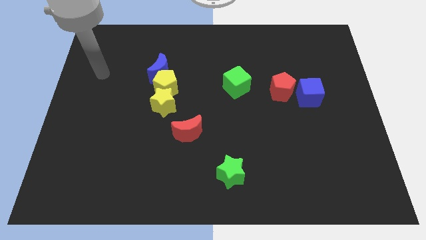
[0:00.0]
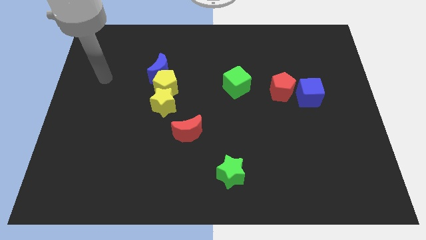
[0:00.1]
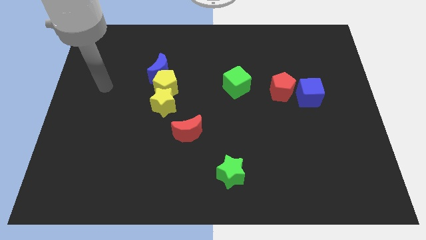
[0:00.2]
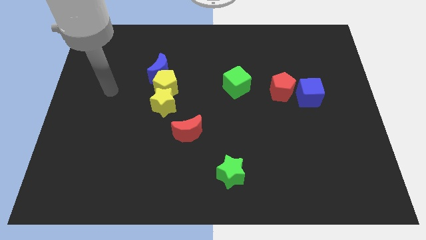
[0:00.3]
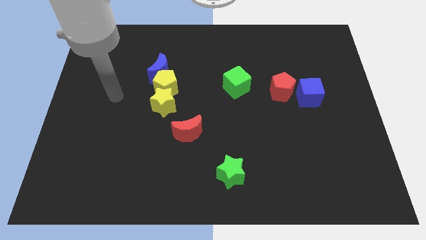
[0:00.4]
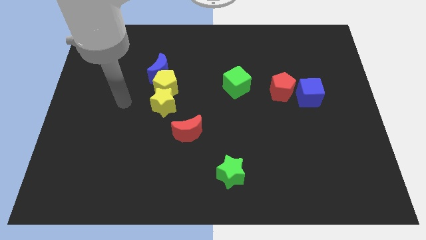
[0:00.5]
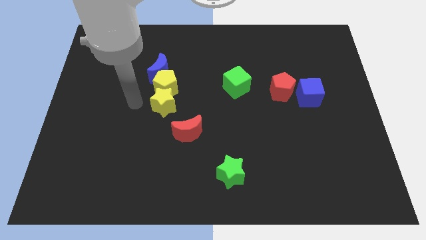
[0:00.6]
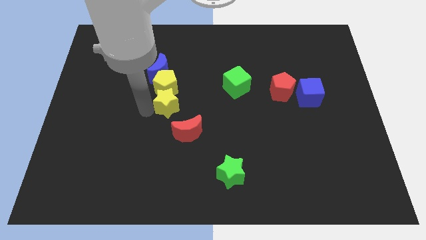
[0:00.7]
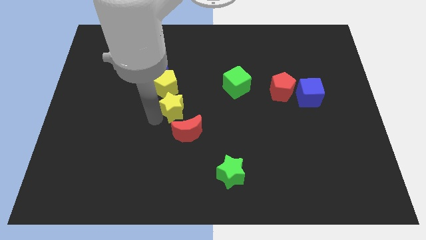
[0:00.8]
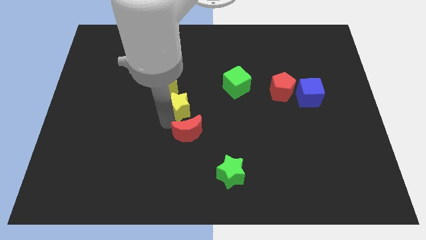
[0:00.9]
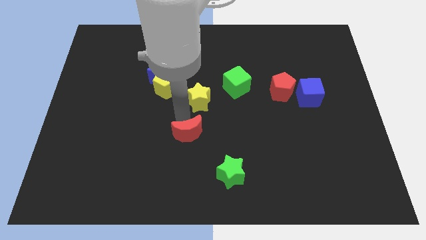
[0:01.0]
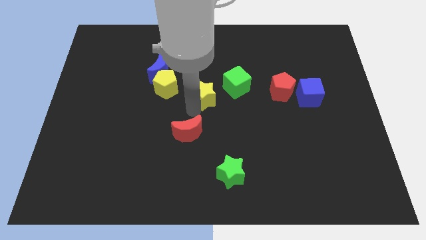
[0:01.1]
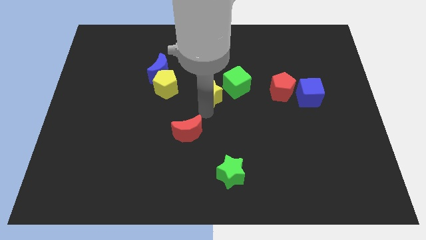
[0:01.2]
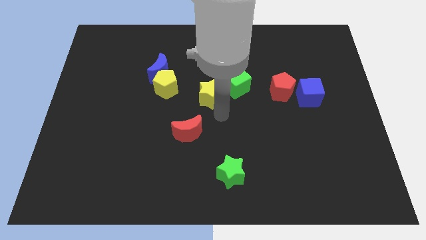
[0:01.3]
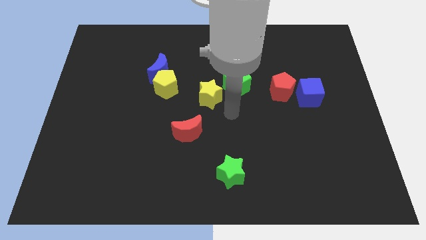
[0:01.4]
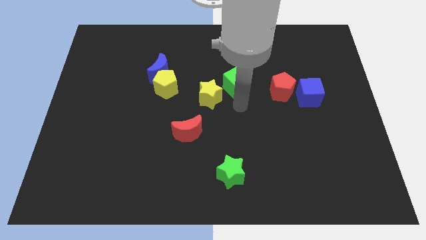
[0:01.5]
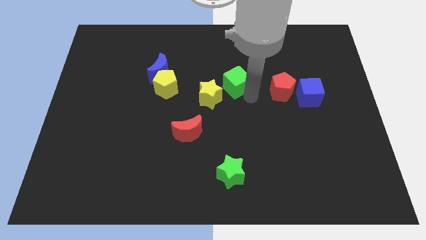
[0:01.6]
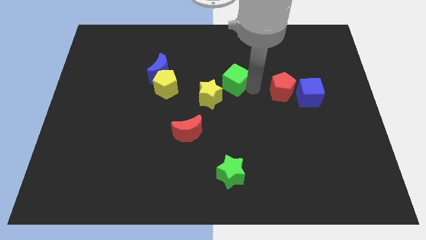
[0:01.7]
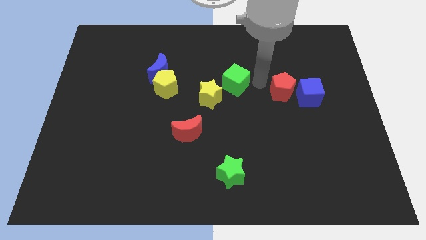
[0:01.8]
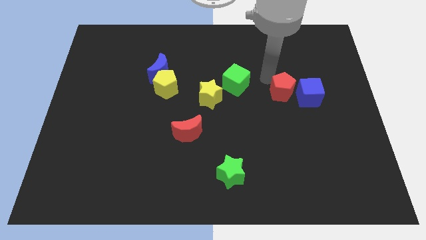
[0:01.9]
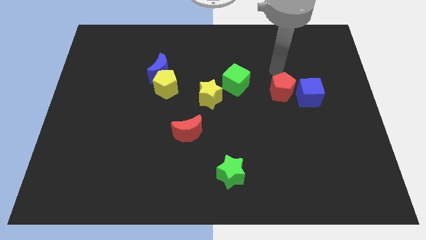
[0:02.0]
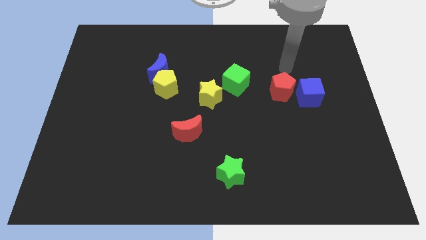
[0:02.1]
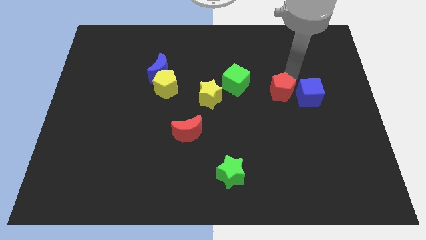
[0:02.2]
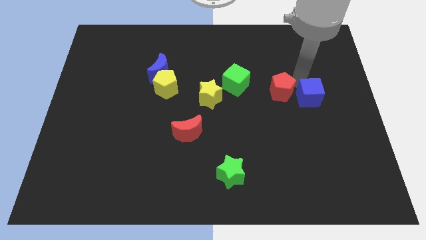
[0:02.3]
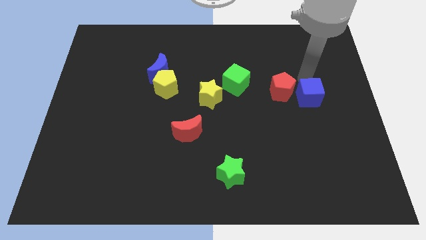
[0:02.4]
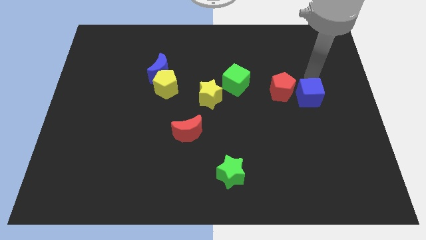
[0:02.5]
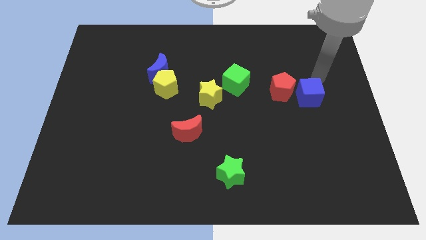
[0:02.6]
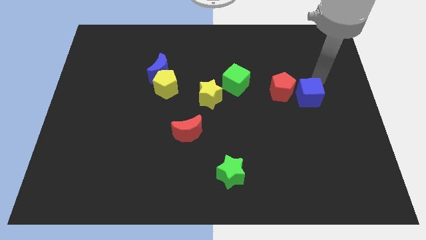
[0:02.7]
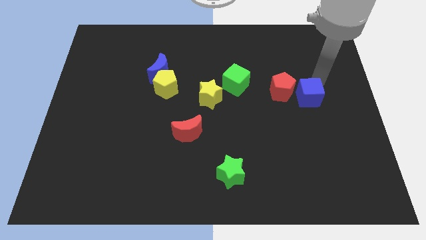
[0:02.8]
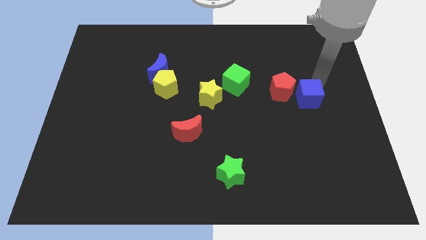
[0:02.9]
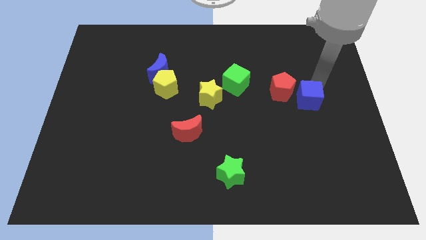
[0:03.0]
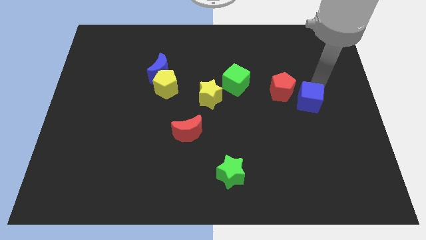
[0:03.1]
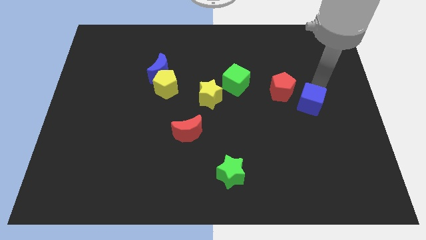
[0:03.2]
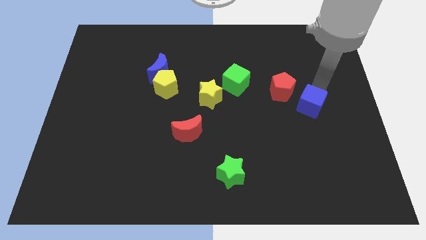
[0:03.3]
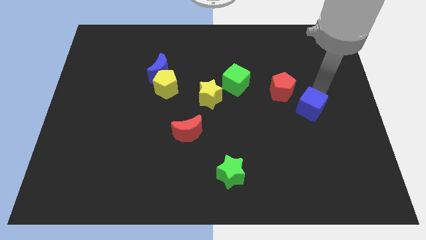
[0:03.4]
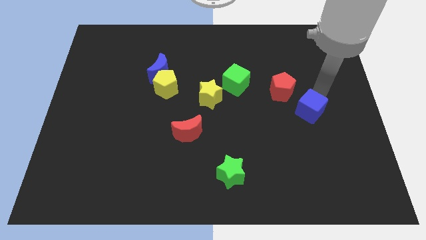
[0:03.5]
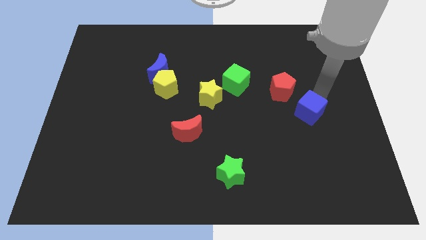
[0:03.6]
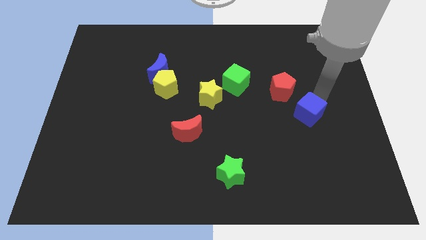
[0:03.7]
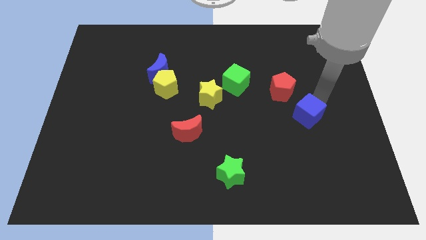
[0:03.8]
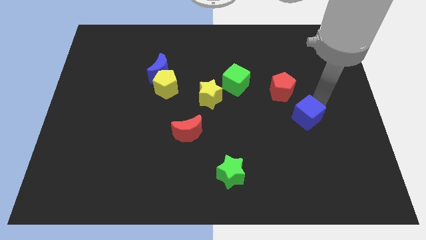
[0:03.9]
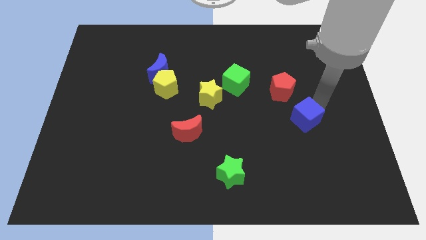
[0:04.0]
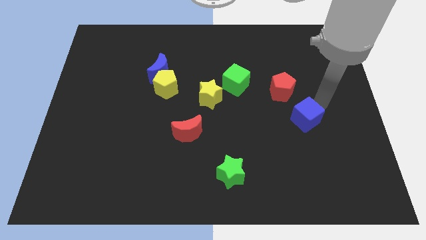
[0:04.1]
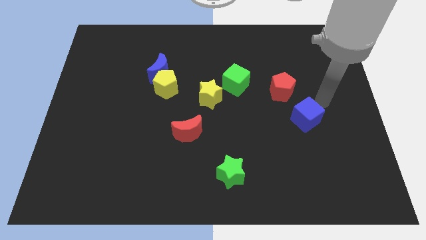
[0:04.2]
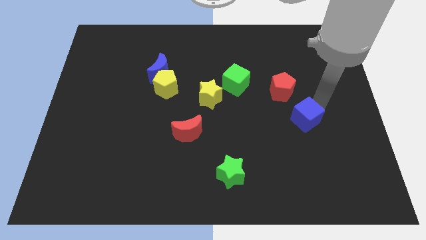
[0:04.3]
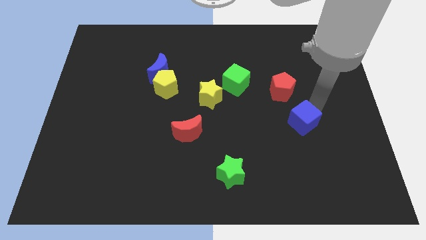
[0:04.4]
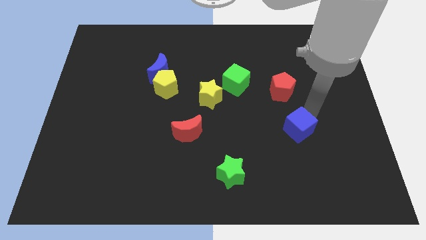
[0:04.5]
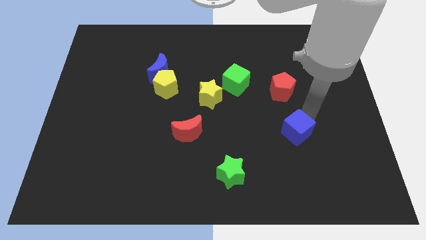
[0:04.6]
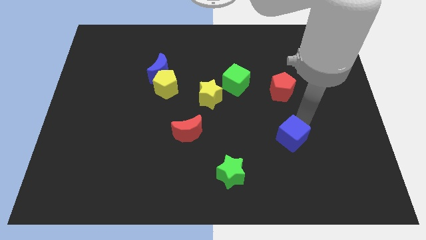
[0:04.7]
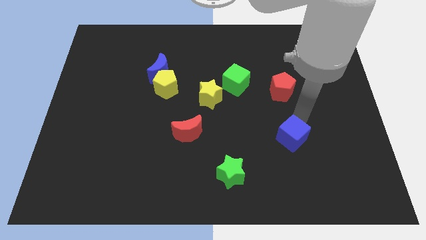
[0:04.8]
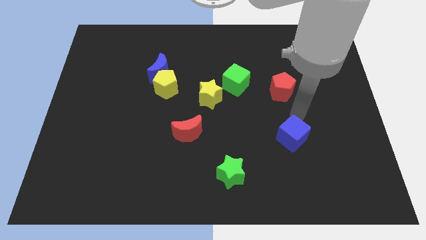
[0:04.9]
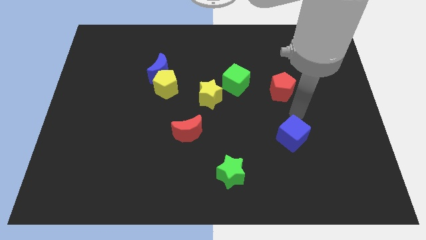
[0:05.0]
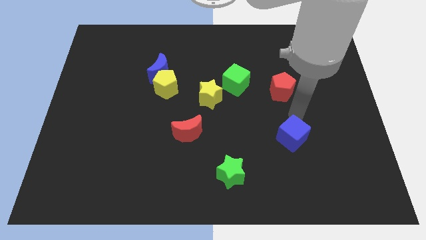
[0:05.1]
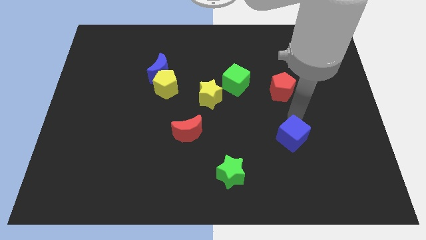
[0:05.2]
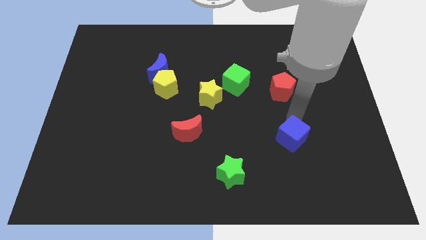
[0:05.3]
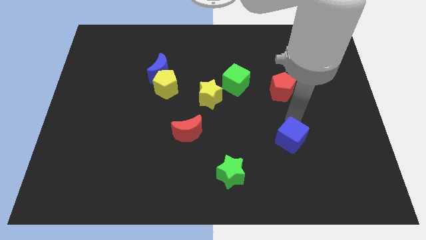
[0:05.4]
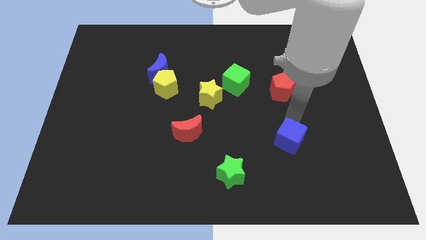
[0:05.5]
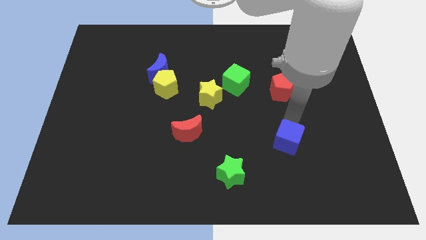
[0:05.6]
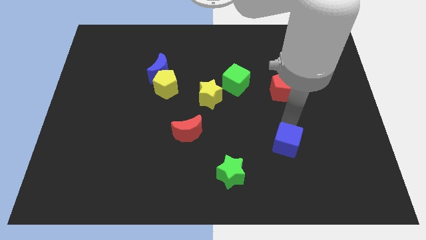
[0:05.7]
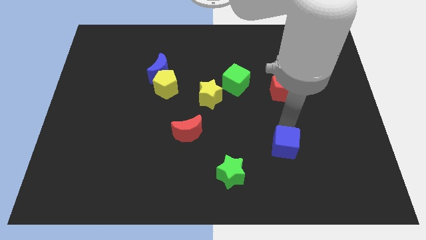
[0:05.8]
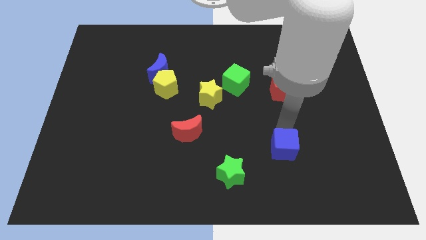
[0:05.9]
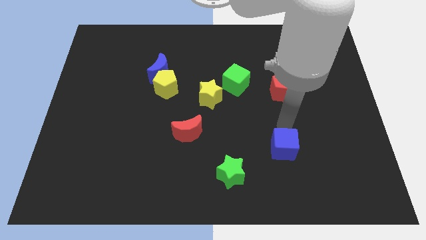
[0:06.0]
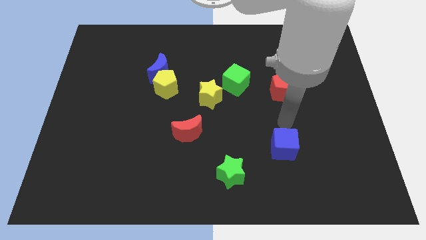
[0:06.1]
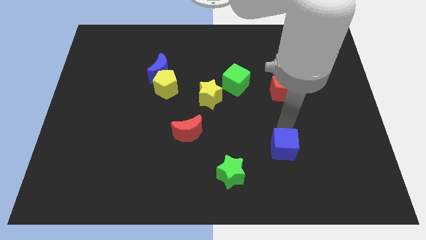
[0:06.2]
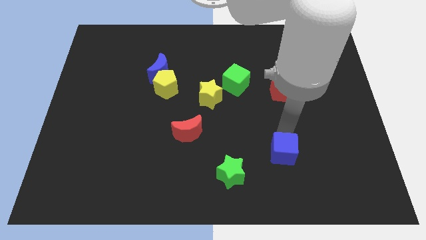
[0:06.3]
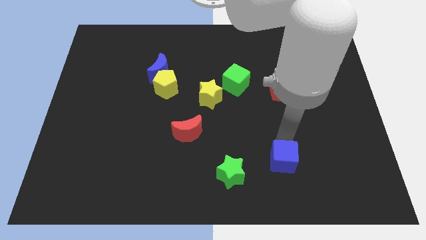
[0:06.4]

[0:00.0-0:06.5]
push the blue cube to the right of the green star

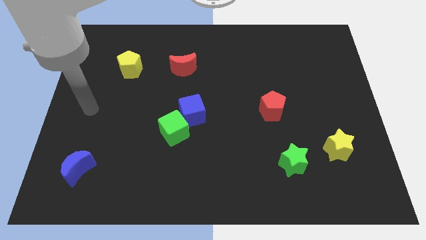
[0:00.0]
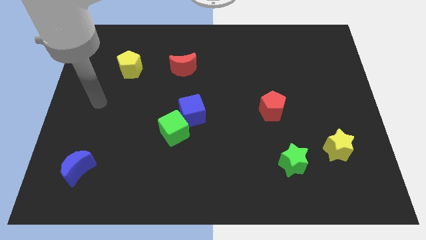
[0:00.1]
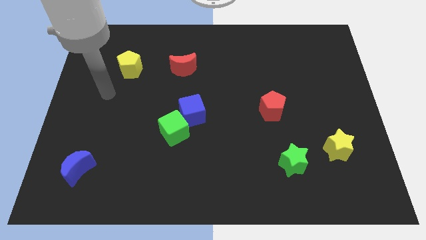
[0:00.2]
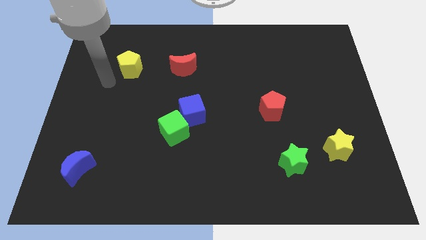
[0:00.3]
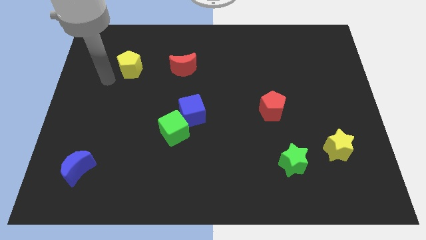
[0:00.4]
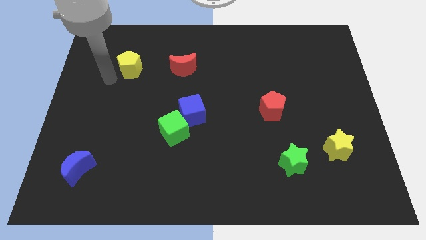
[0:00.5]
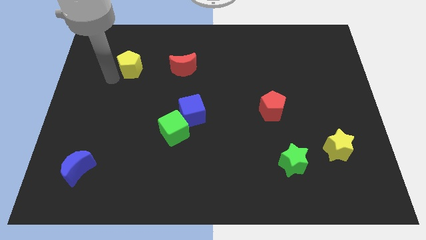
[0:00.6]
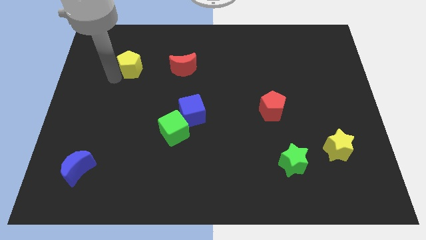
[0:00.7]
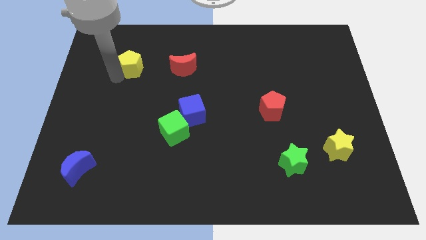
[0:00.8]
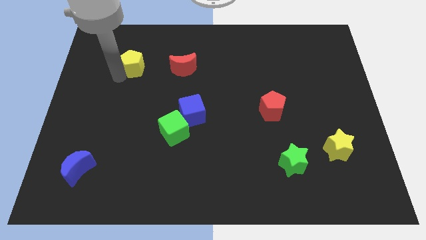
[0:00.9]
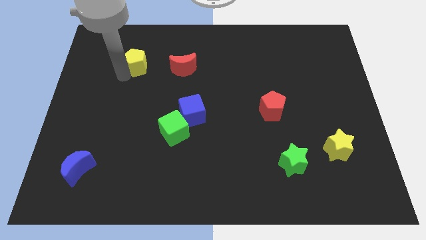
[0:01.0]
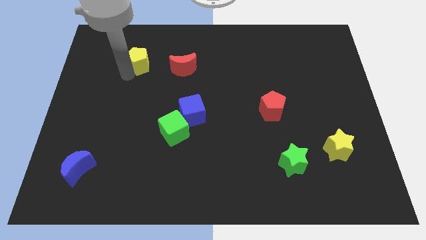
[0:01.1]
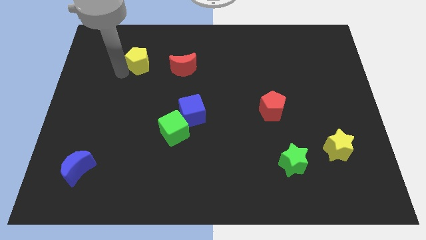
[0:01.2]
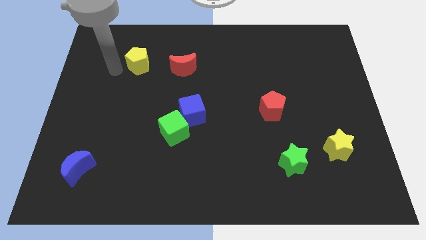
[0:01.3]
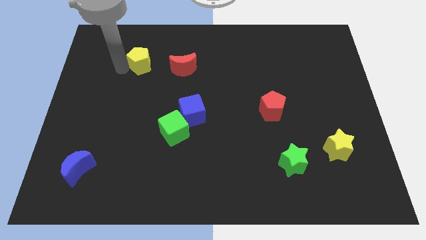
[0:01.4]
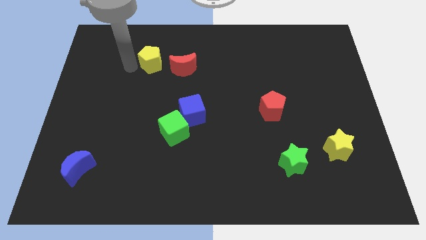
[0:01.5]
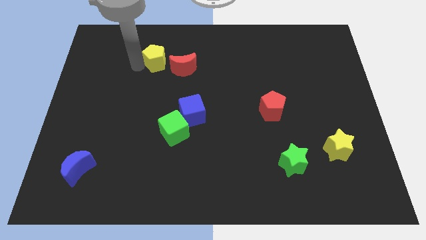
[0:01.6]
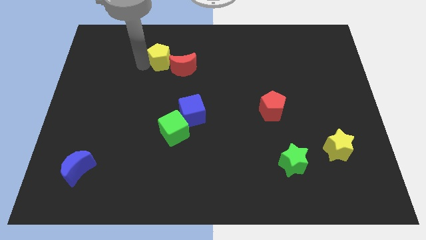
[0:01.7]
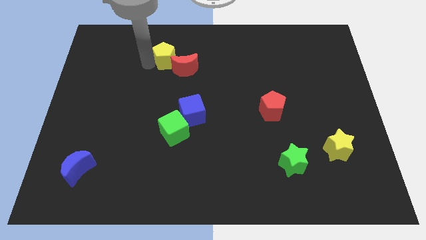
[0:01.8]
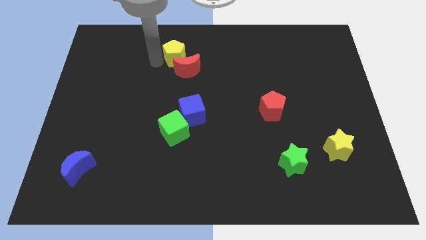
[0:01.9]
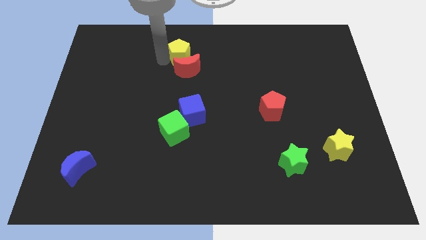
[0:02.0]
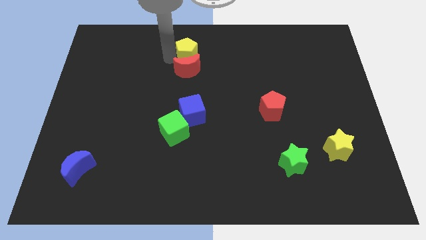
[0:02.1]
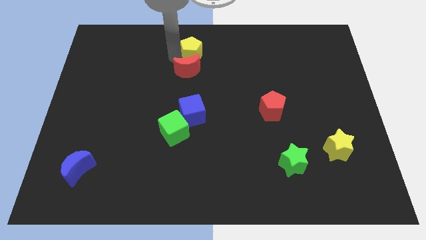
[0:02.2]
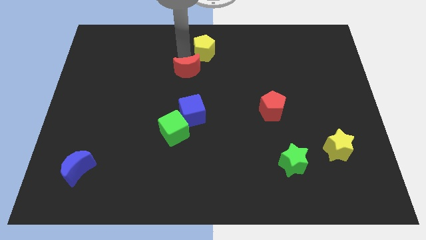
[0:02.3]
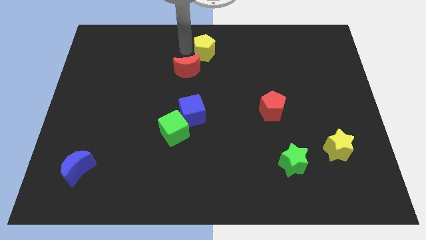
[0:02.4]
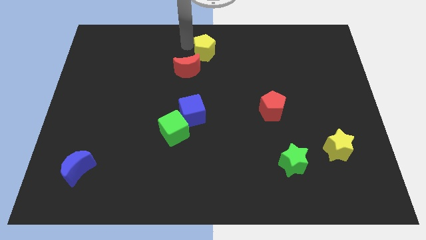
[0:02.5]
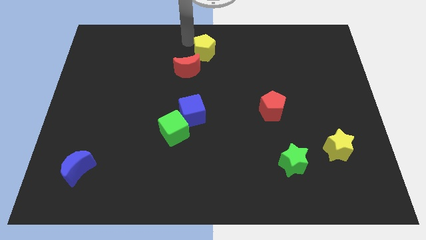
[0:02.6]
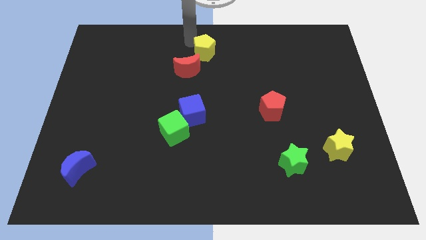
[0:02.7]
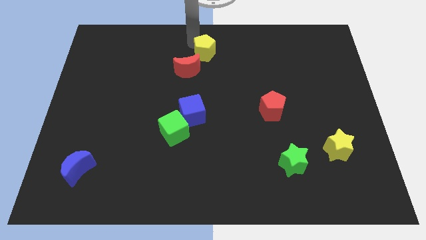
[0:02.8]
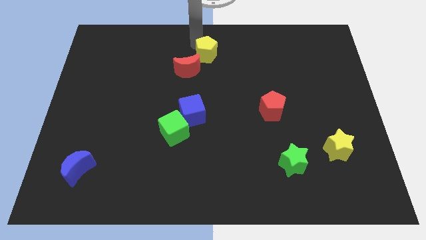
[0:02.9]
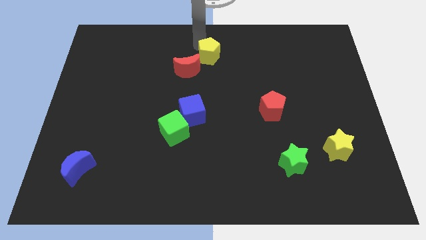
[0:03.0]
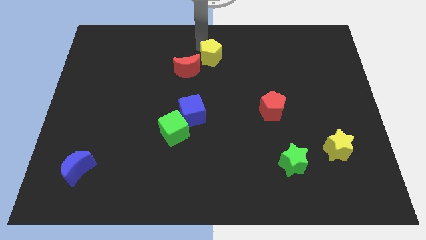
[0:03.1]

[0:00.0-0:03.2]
move the yellow pentagon right of the red moon
